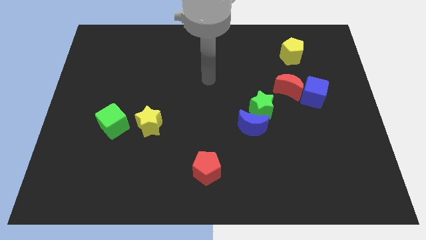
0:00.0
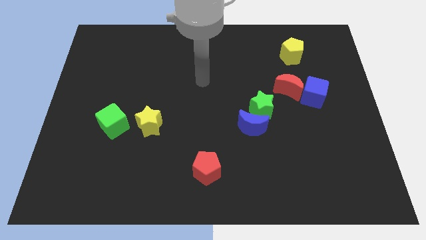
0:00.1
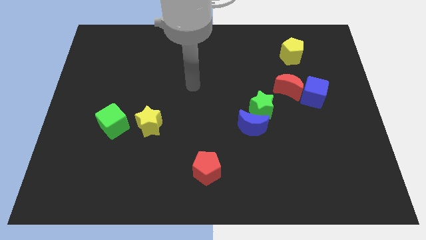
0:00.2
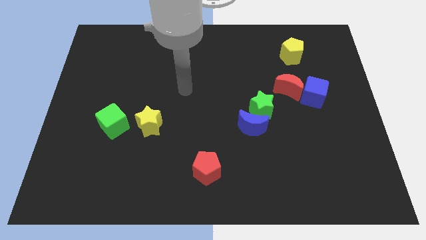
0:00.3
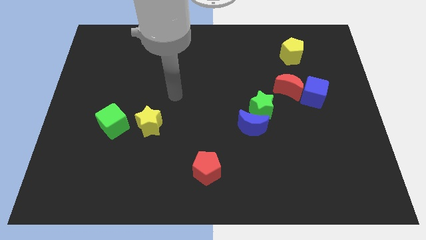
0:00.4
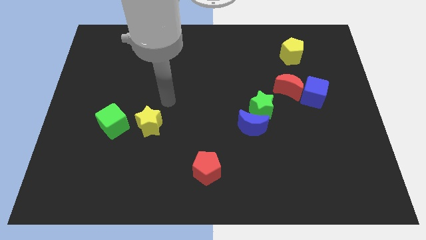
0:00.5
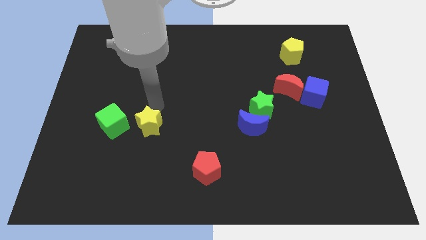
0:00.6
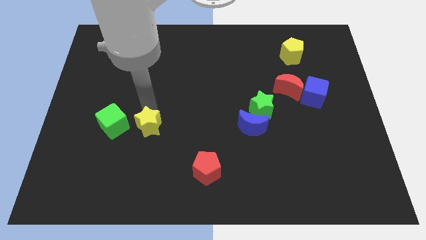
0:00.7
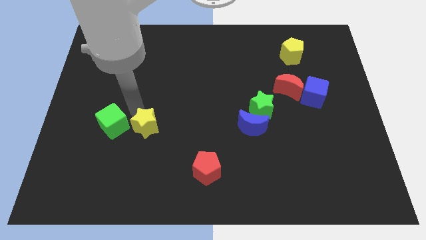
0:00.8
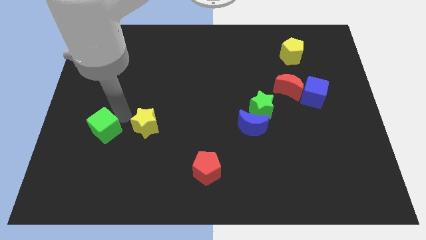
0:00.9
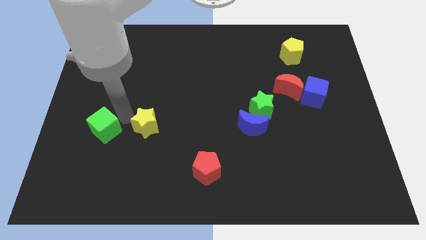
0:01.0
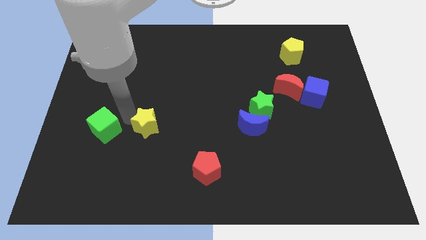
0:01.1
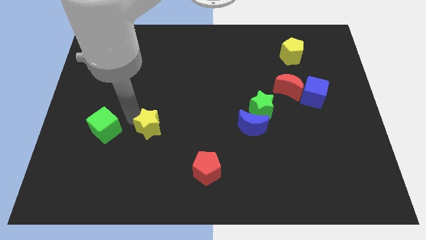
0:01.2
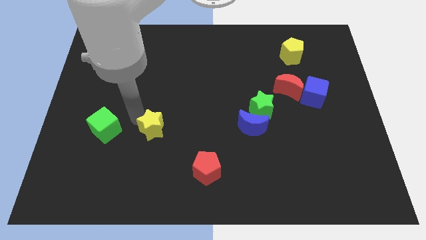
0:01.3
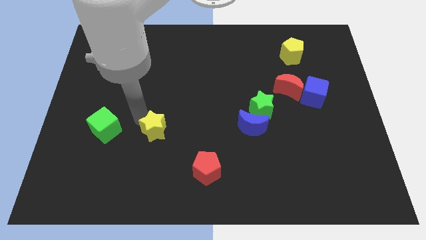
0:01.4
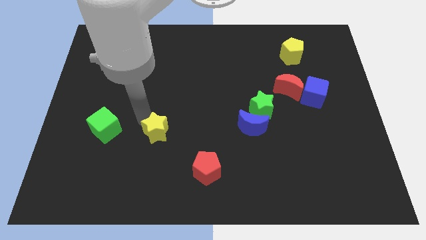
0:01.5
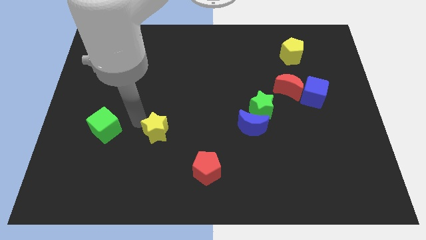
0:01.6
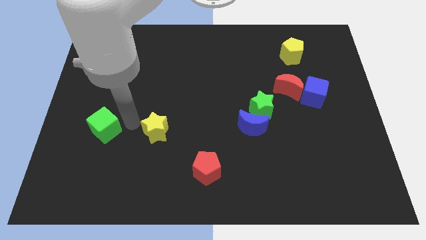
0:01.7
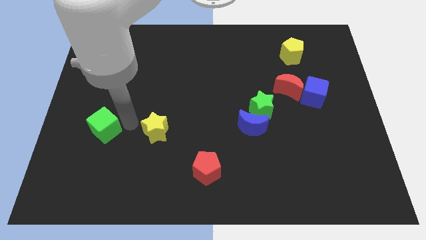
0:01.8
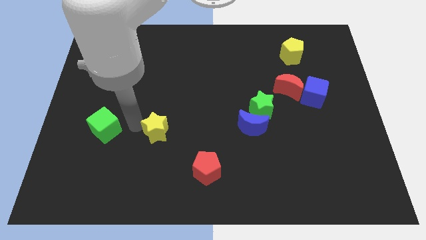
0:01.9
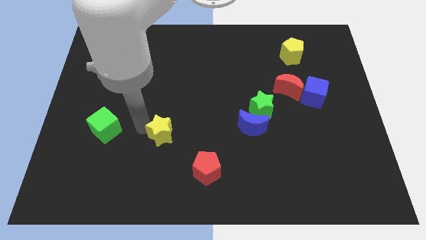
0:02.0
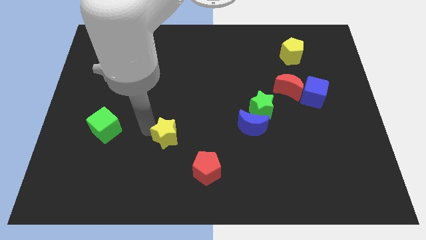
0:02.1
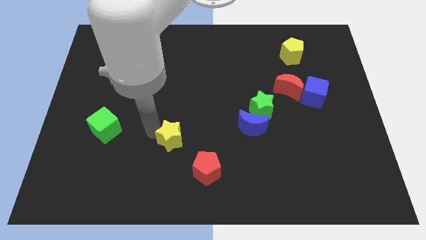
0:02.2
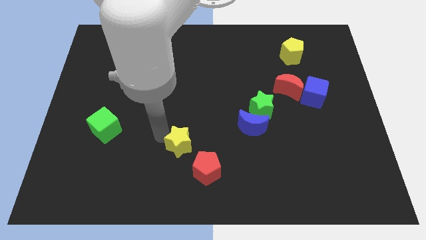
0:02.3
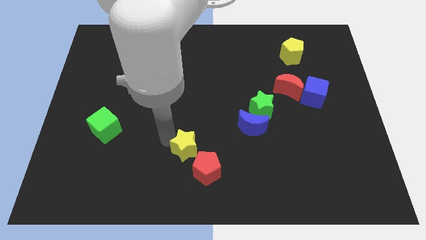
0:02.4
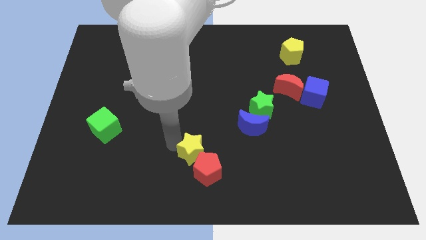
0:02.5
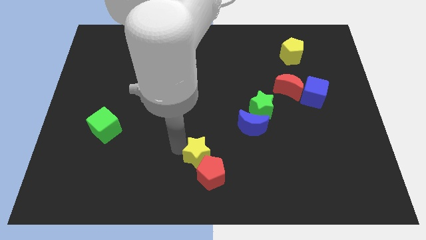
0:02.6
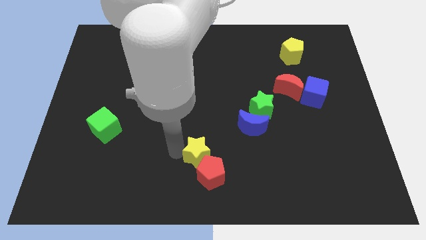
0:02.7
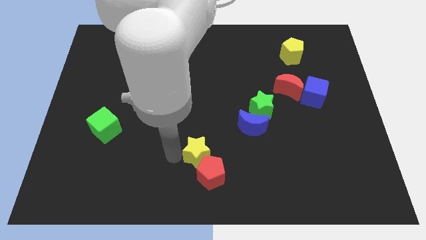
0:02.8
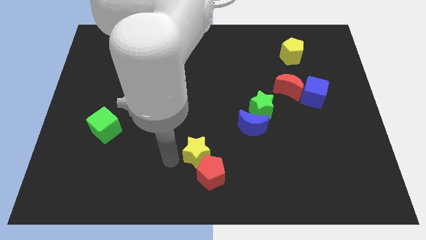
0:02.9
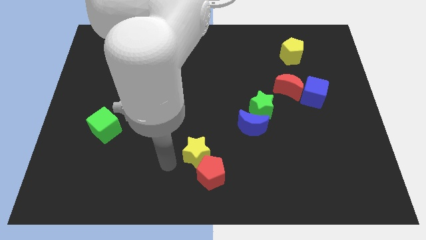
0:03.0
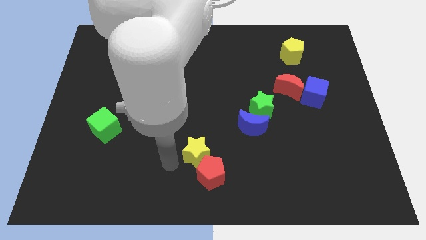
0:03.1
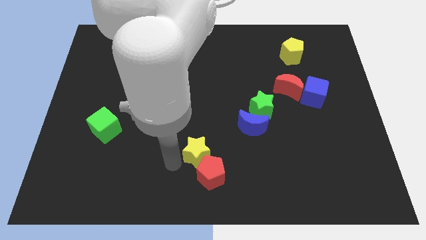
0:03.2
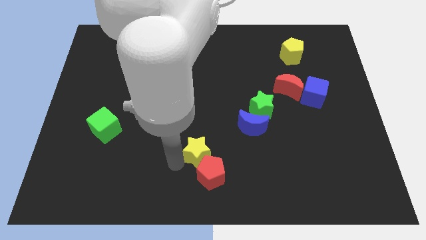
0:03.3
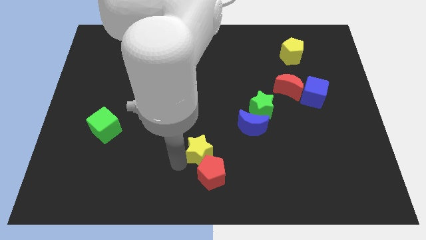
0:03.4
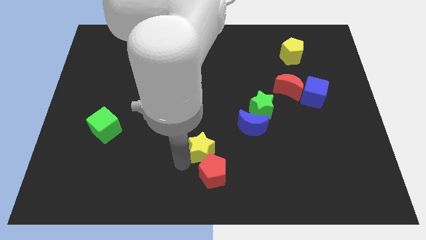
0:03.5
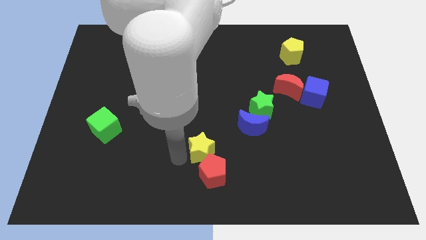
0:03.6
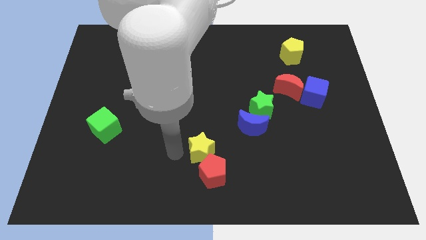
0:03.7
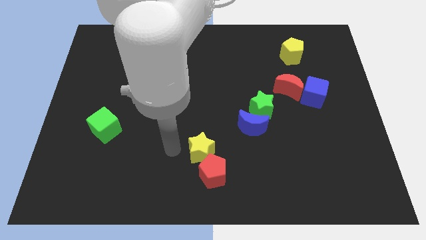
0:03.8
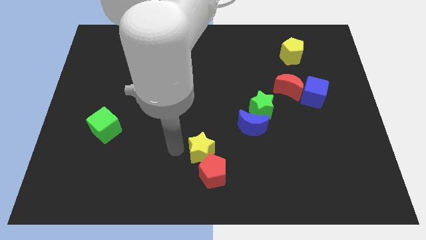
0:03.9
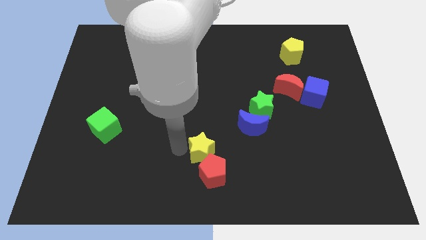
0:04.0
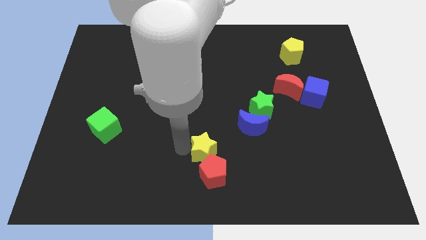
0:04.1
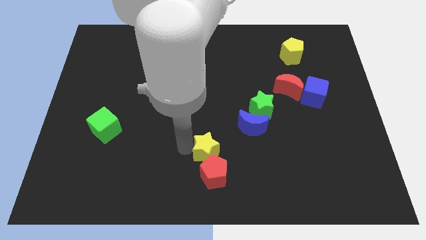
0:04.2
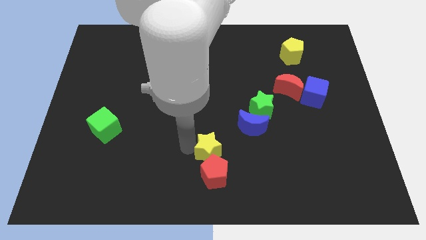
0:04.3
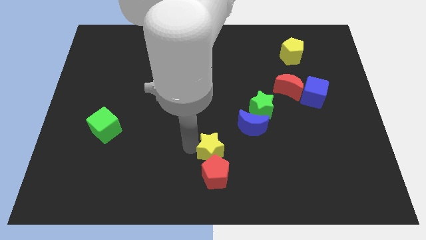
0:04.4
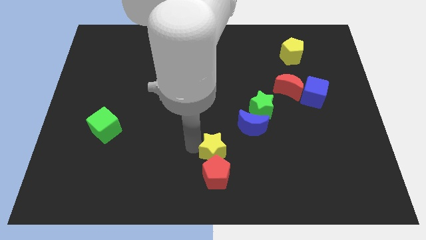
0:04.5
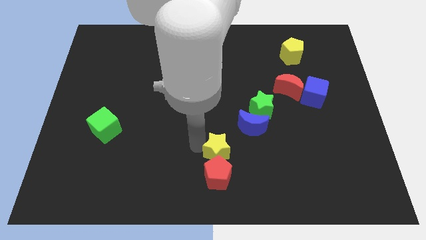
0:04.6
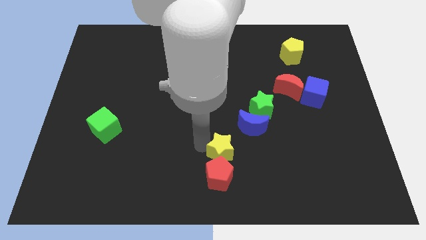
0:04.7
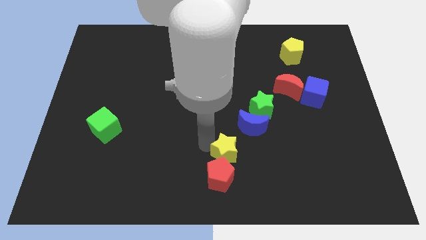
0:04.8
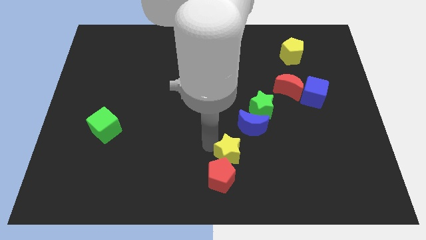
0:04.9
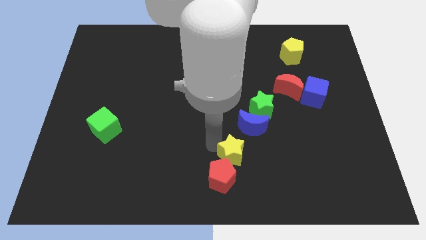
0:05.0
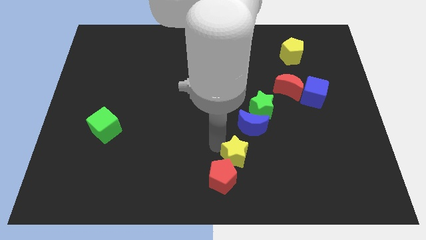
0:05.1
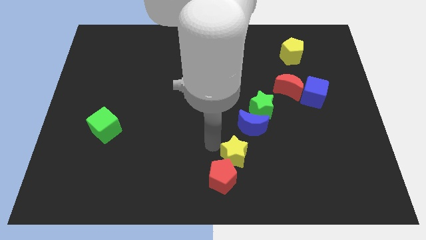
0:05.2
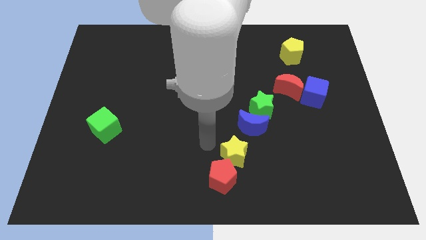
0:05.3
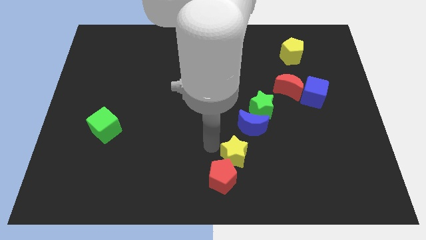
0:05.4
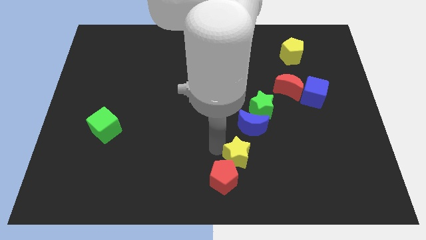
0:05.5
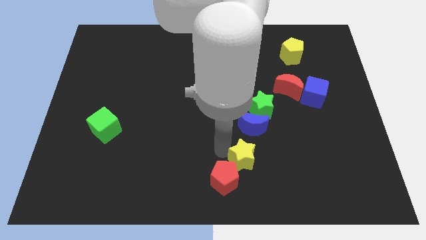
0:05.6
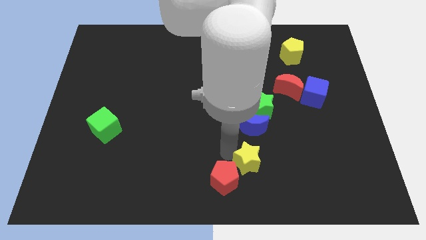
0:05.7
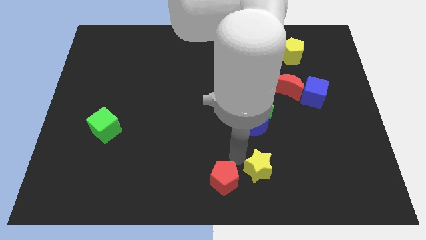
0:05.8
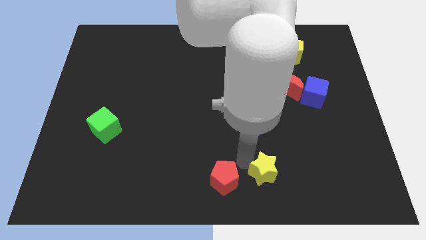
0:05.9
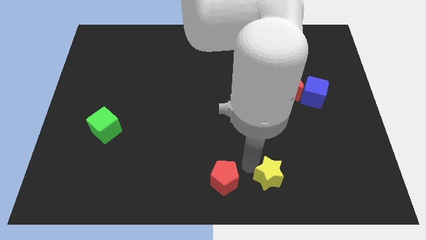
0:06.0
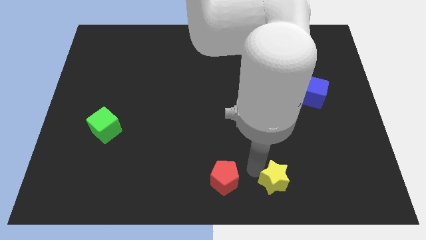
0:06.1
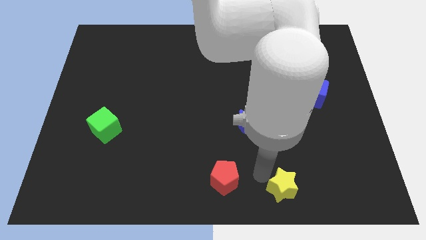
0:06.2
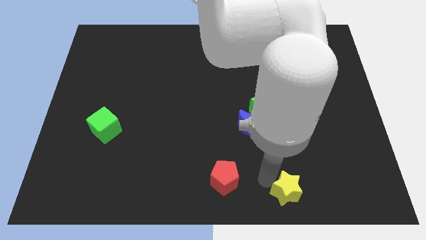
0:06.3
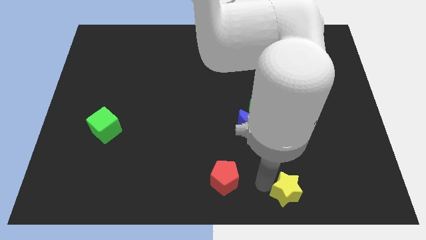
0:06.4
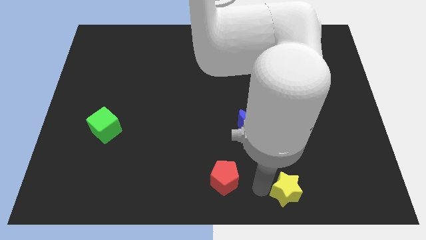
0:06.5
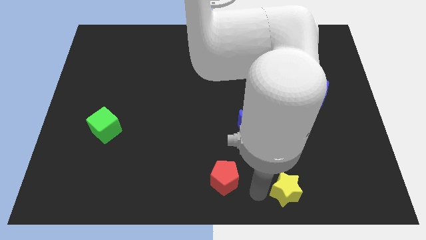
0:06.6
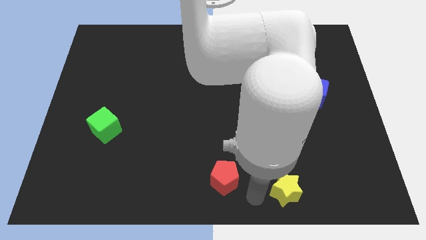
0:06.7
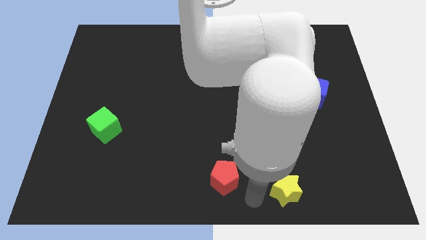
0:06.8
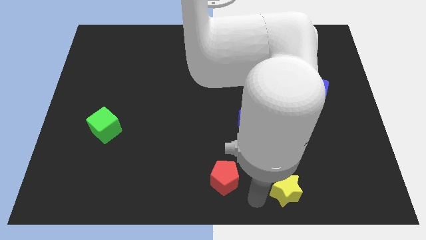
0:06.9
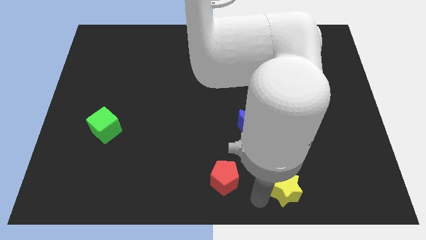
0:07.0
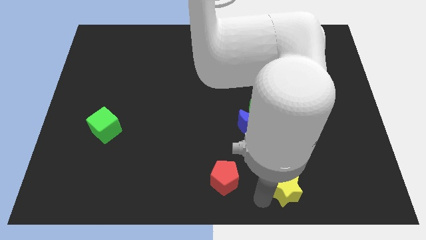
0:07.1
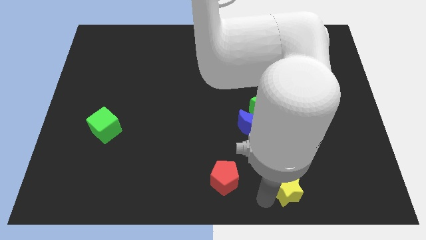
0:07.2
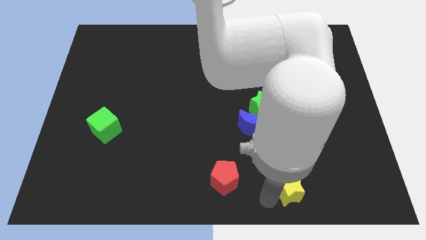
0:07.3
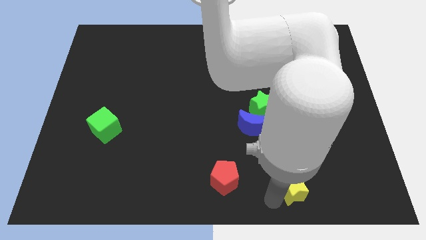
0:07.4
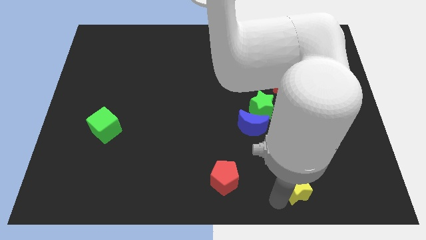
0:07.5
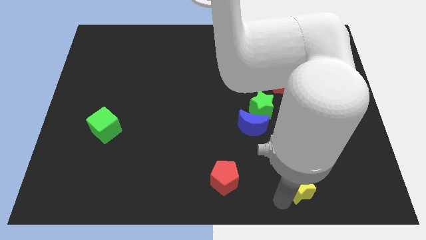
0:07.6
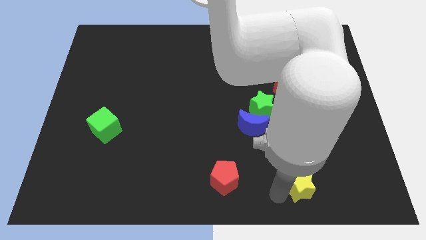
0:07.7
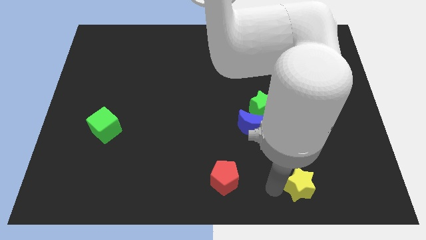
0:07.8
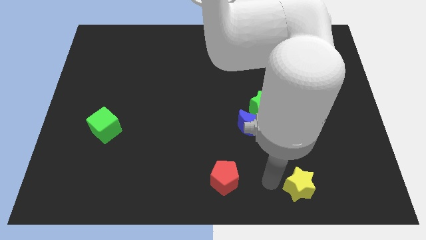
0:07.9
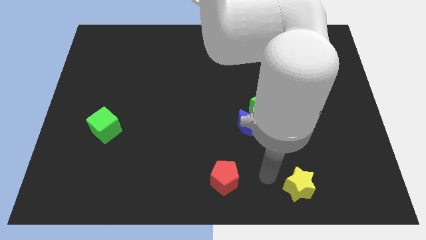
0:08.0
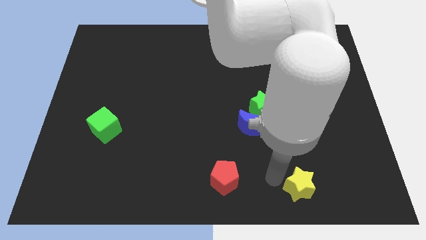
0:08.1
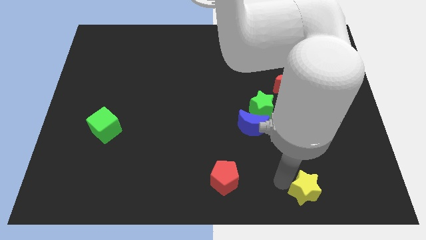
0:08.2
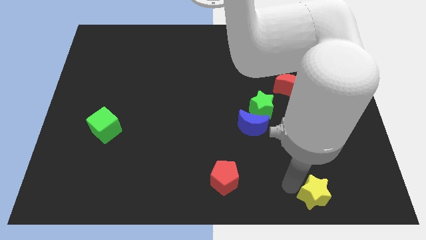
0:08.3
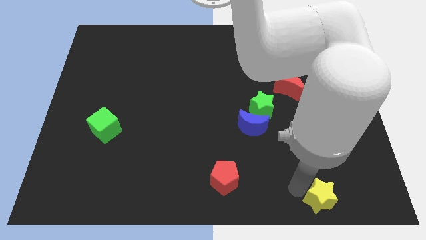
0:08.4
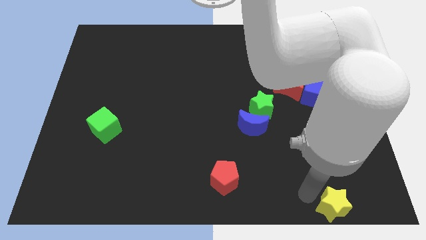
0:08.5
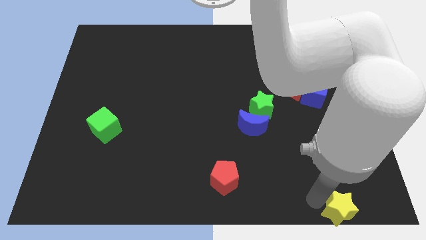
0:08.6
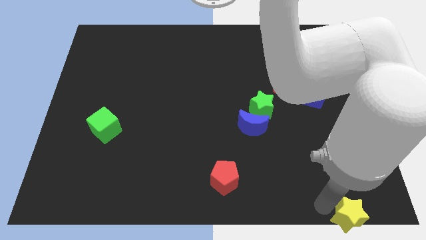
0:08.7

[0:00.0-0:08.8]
slide the yellow star to the bottom right of the board
